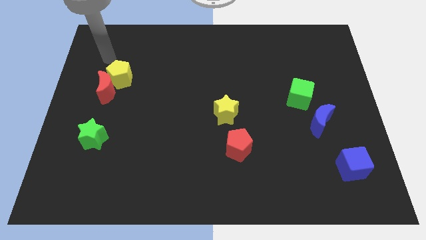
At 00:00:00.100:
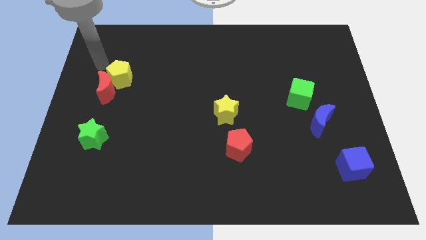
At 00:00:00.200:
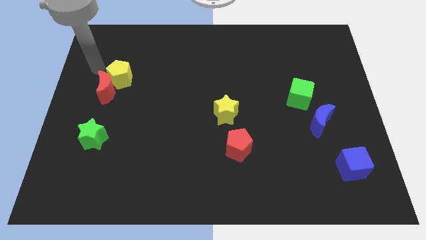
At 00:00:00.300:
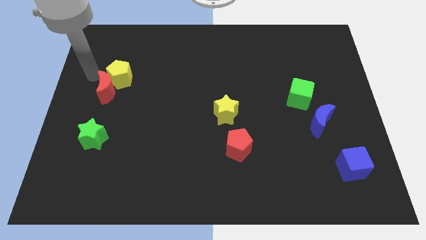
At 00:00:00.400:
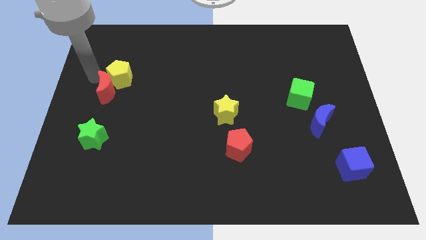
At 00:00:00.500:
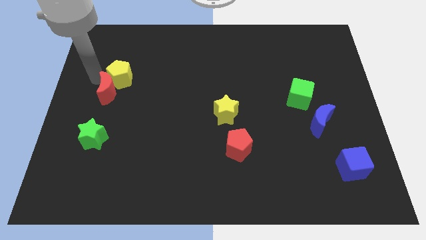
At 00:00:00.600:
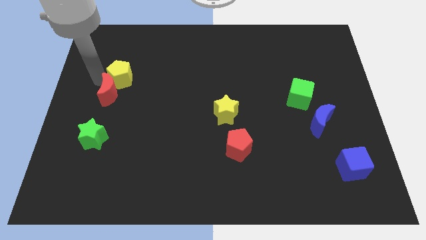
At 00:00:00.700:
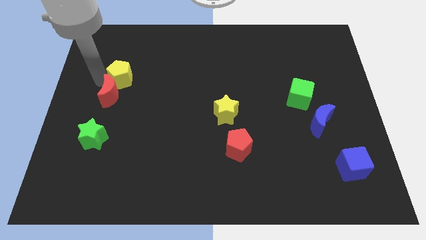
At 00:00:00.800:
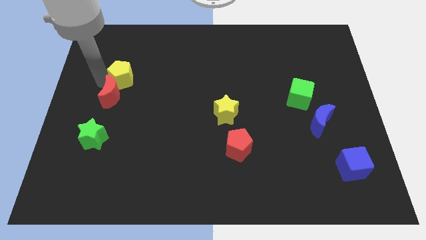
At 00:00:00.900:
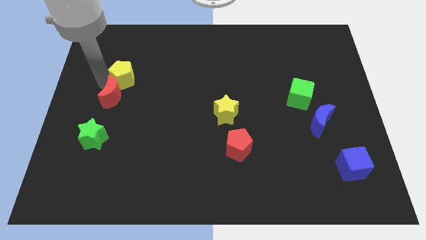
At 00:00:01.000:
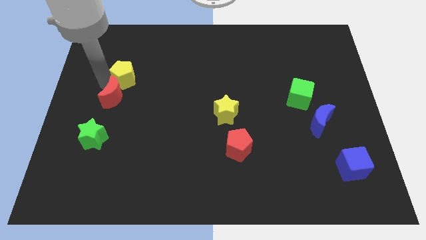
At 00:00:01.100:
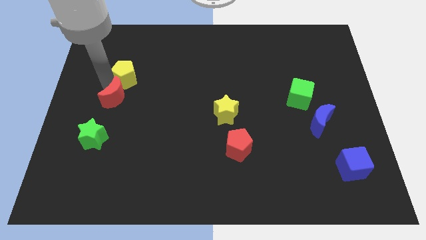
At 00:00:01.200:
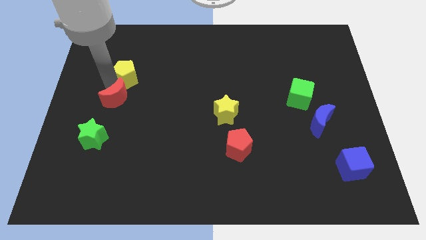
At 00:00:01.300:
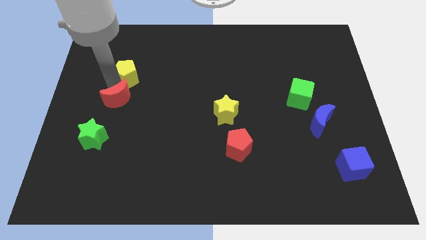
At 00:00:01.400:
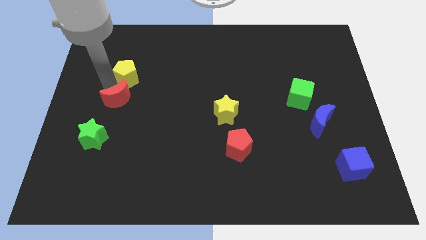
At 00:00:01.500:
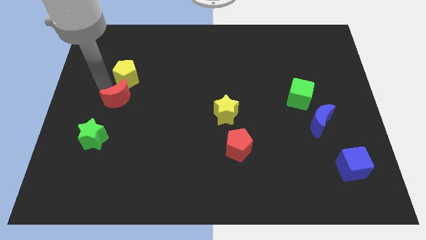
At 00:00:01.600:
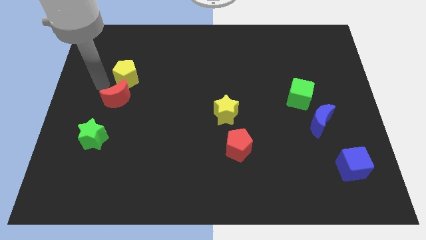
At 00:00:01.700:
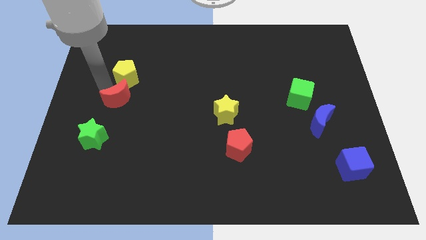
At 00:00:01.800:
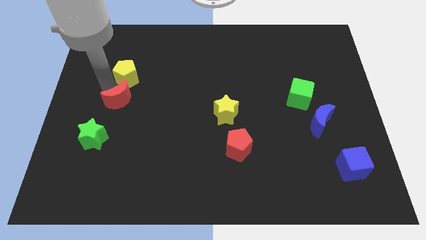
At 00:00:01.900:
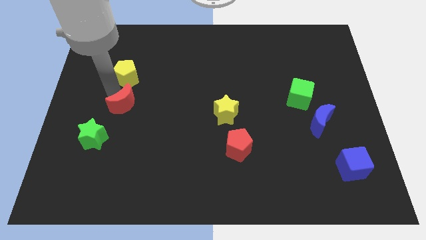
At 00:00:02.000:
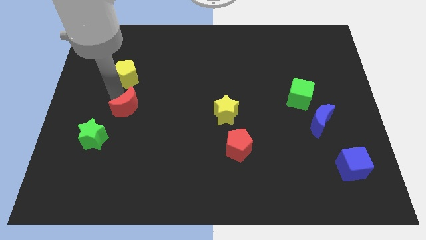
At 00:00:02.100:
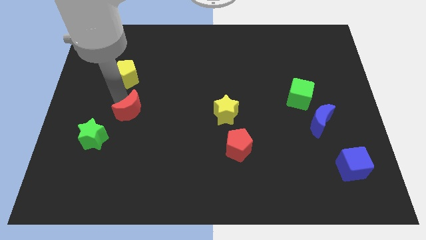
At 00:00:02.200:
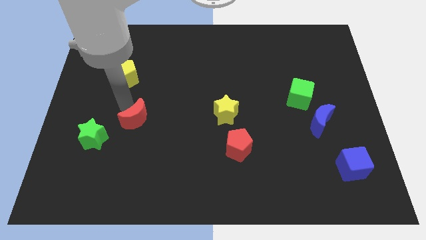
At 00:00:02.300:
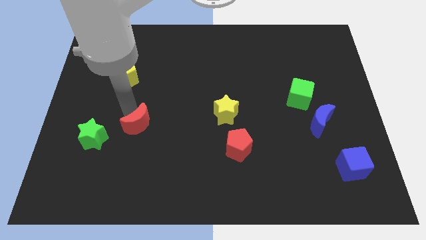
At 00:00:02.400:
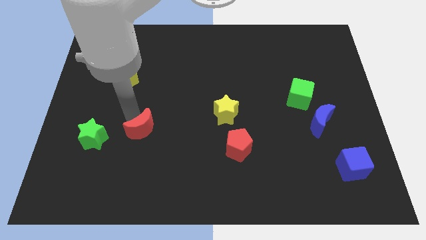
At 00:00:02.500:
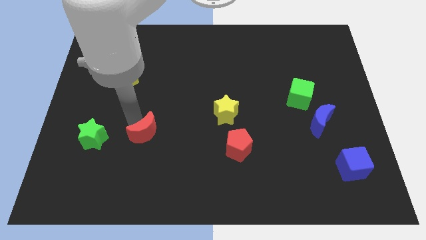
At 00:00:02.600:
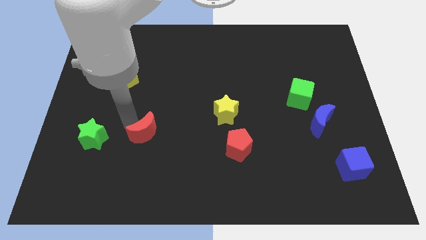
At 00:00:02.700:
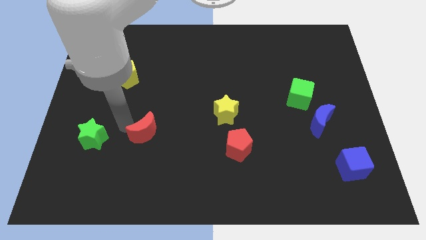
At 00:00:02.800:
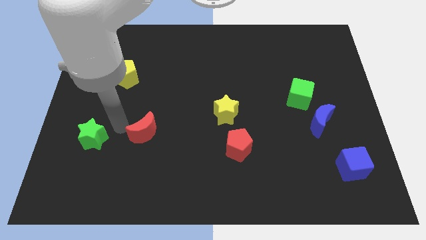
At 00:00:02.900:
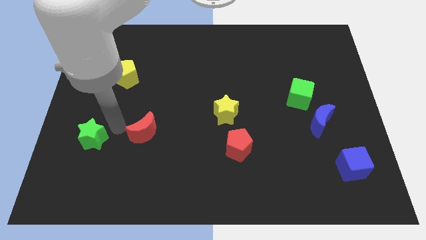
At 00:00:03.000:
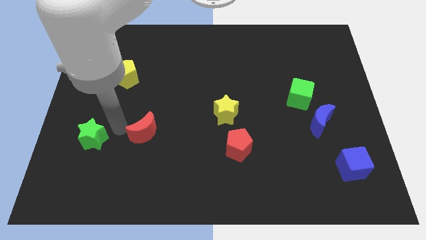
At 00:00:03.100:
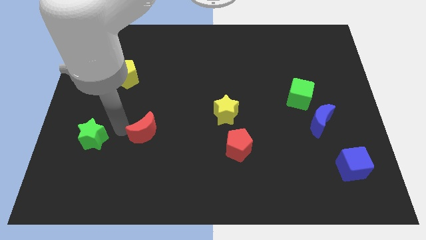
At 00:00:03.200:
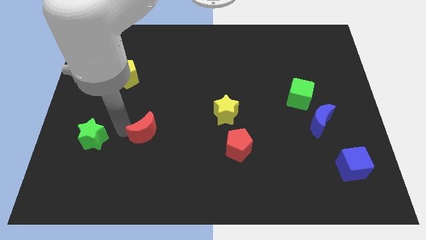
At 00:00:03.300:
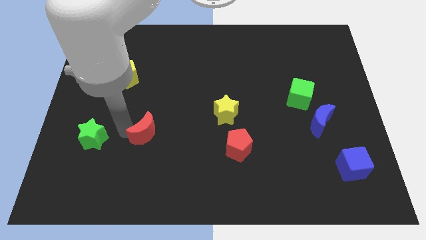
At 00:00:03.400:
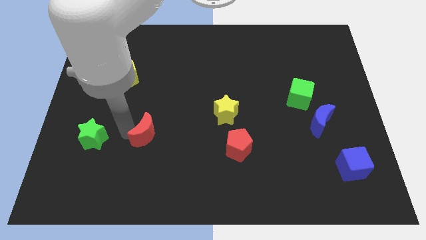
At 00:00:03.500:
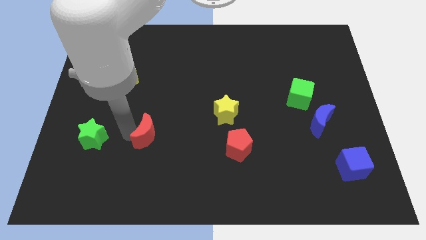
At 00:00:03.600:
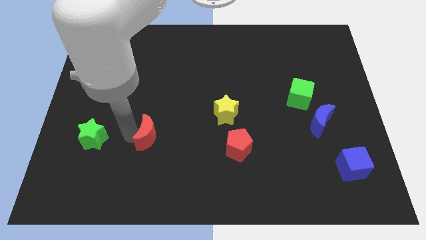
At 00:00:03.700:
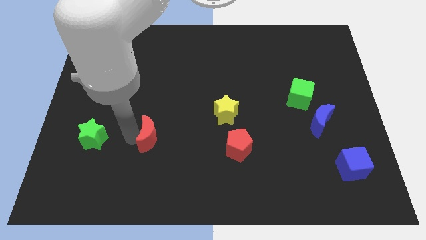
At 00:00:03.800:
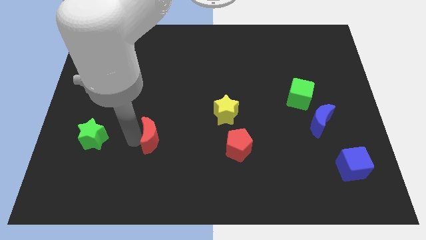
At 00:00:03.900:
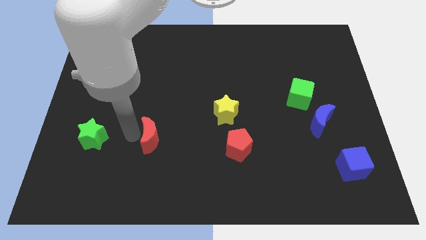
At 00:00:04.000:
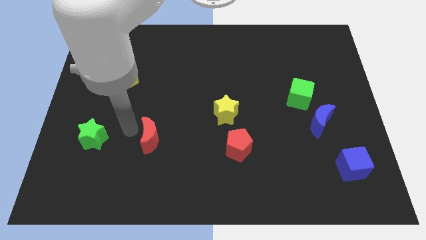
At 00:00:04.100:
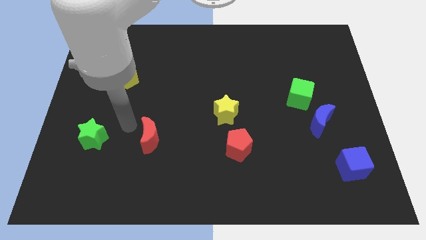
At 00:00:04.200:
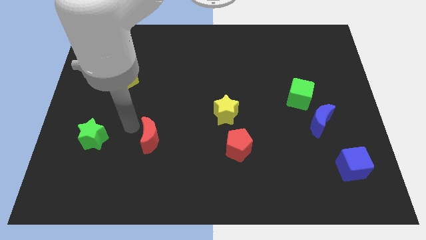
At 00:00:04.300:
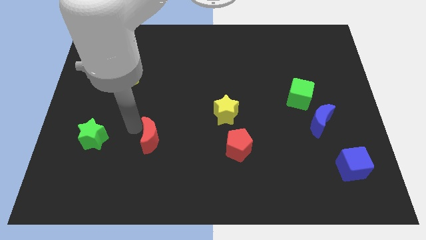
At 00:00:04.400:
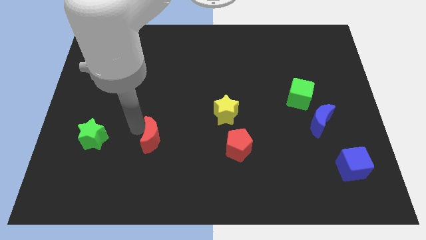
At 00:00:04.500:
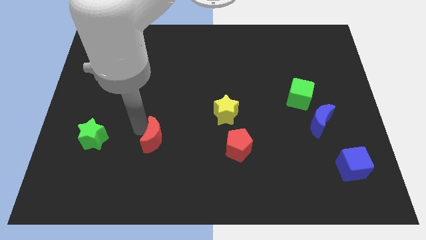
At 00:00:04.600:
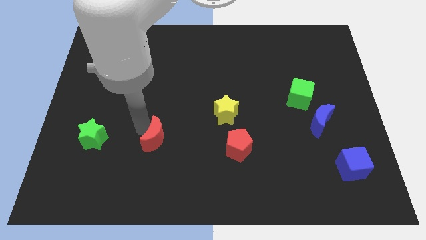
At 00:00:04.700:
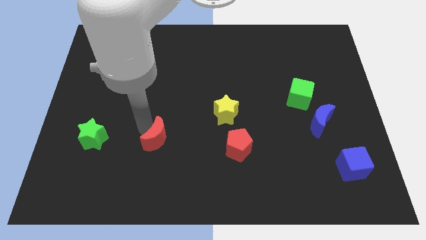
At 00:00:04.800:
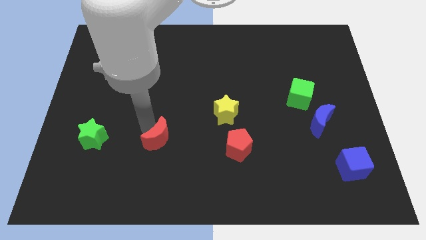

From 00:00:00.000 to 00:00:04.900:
push the red moon downwards and to the right

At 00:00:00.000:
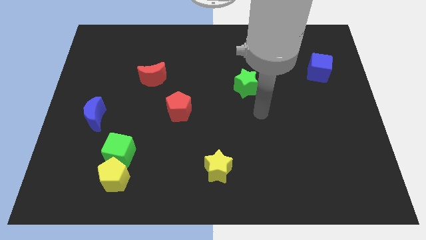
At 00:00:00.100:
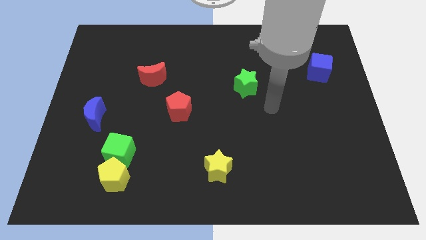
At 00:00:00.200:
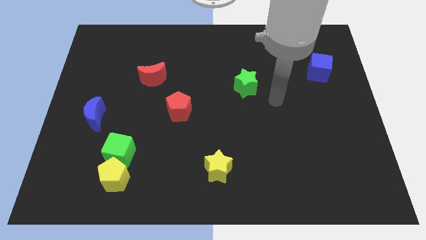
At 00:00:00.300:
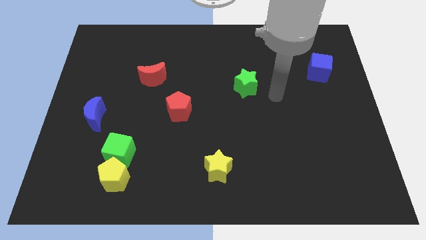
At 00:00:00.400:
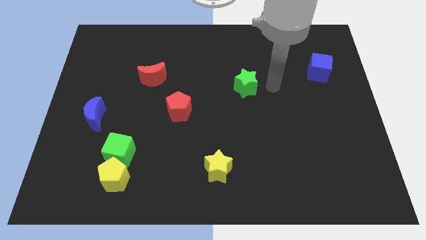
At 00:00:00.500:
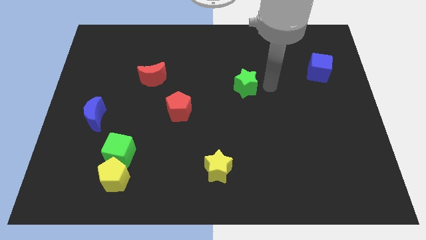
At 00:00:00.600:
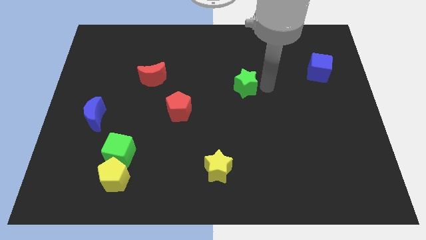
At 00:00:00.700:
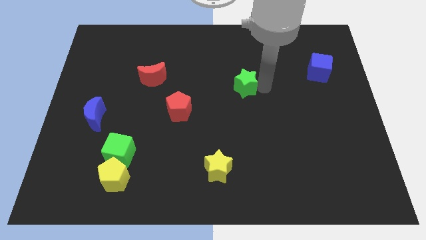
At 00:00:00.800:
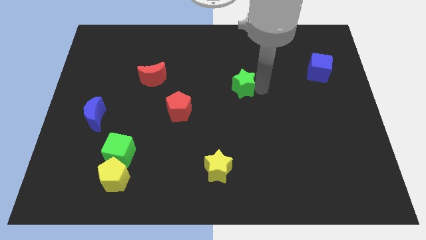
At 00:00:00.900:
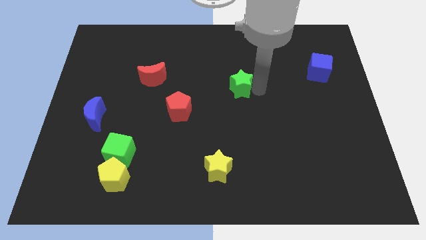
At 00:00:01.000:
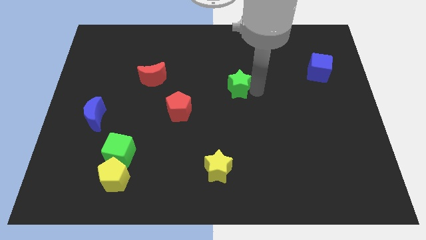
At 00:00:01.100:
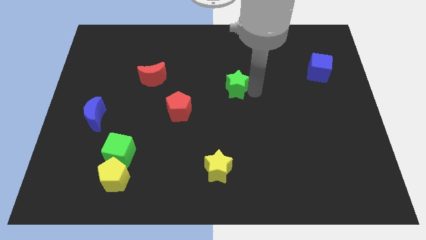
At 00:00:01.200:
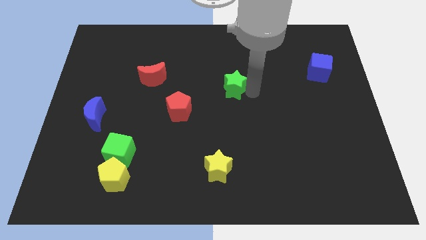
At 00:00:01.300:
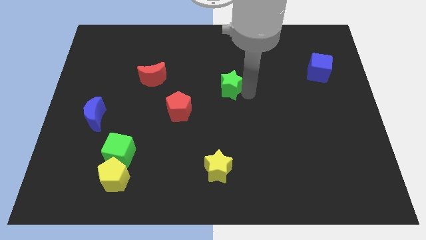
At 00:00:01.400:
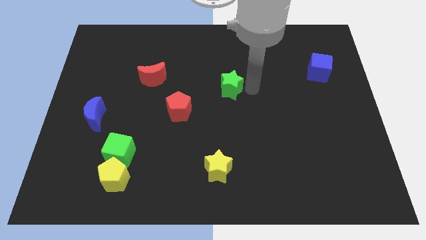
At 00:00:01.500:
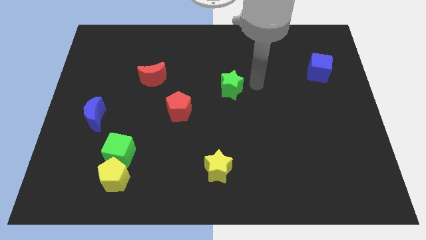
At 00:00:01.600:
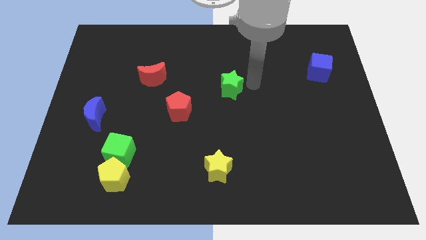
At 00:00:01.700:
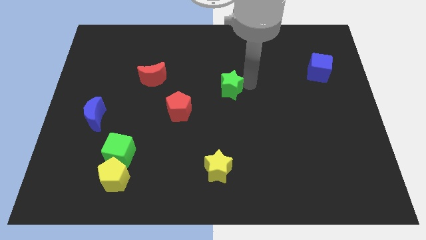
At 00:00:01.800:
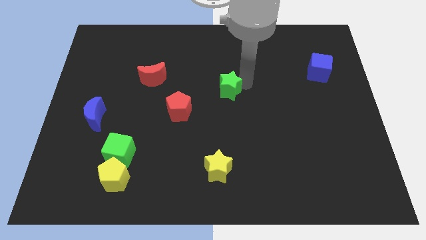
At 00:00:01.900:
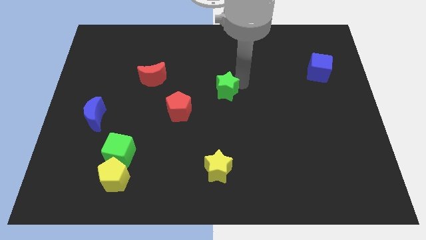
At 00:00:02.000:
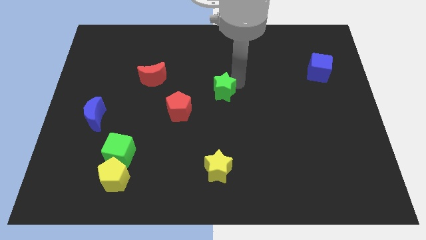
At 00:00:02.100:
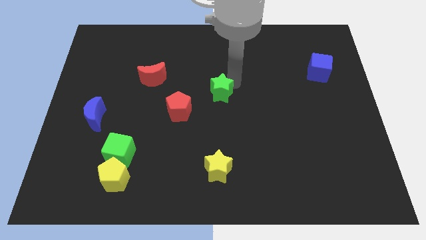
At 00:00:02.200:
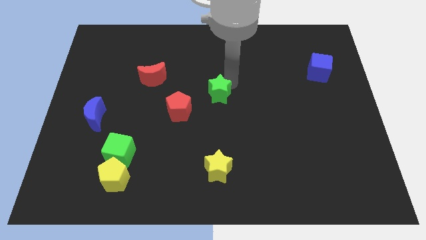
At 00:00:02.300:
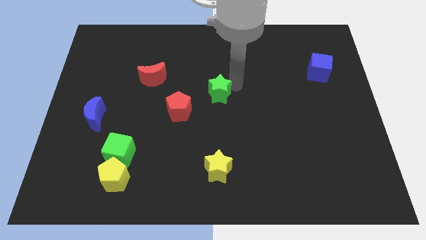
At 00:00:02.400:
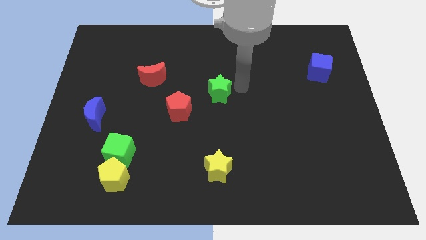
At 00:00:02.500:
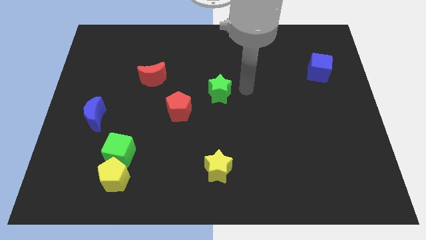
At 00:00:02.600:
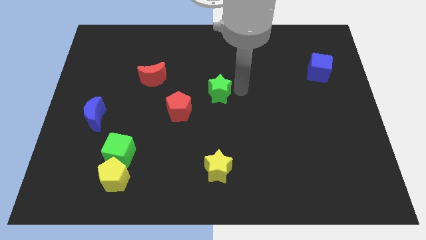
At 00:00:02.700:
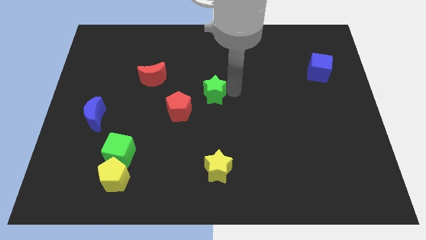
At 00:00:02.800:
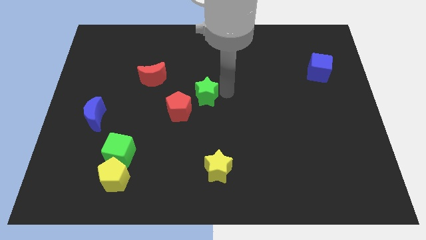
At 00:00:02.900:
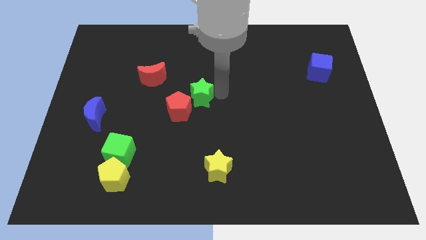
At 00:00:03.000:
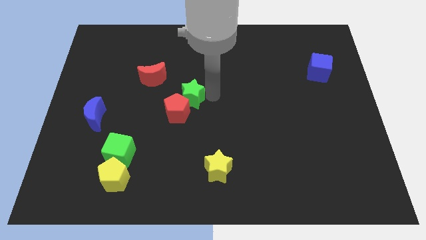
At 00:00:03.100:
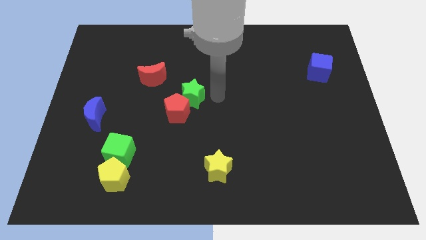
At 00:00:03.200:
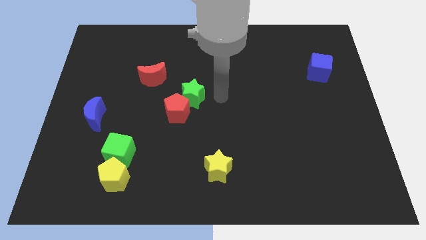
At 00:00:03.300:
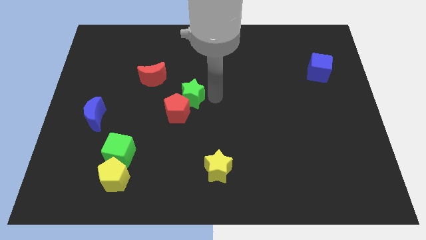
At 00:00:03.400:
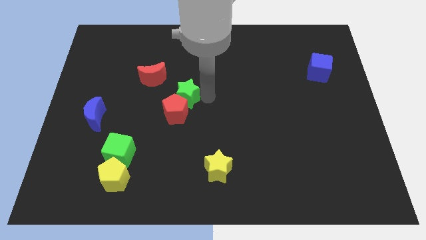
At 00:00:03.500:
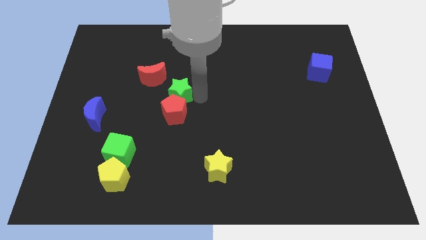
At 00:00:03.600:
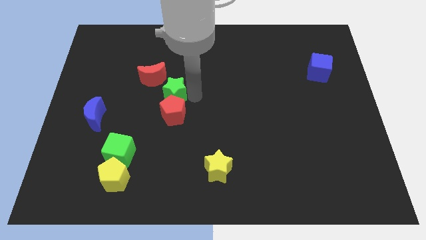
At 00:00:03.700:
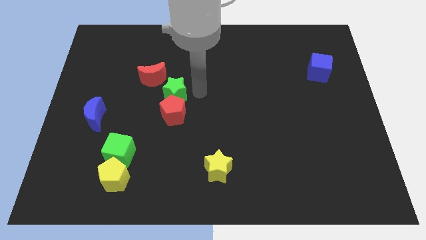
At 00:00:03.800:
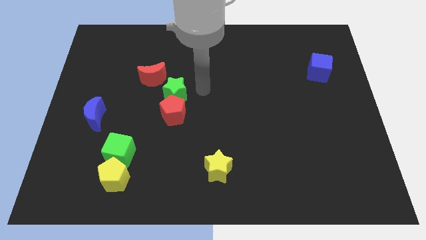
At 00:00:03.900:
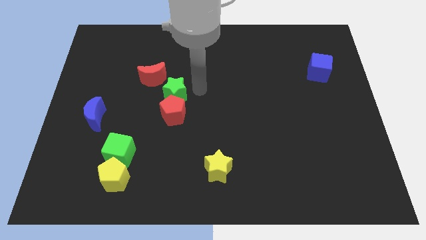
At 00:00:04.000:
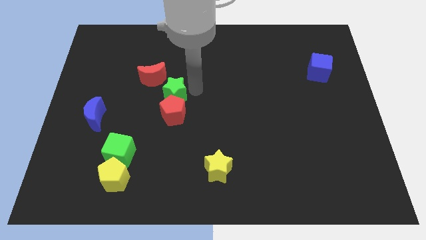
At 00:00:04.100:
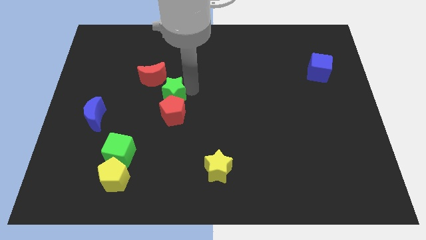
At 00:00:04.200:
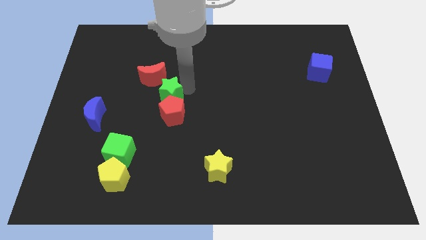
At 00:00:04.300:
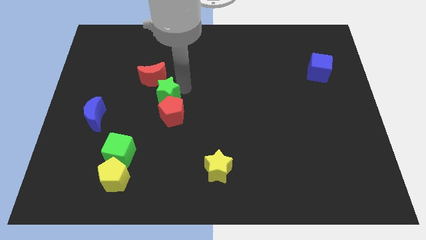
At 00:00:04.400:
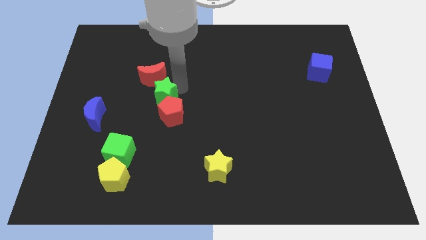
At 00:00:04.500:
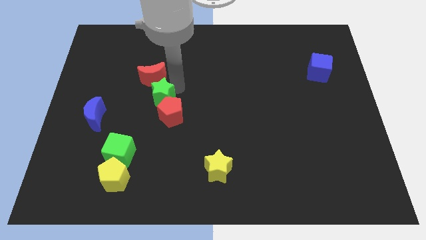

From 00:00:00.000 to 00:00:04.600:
move the green star left
